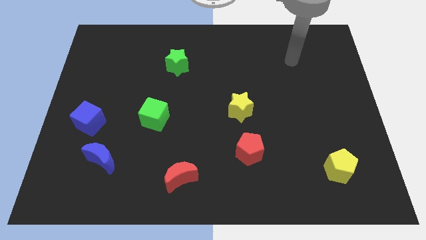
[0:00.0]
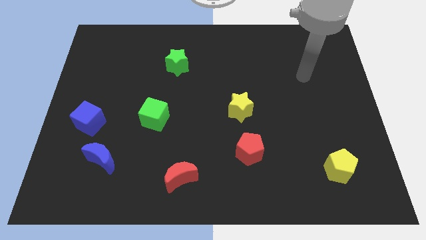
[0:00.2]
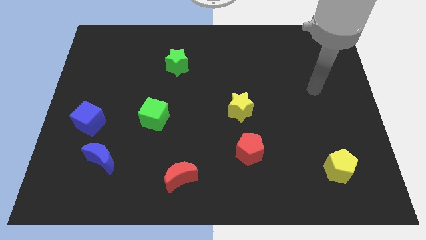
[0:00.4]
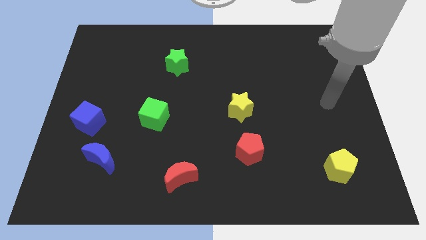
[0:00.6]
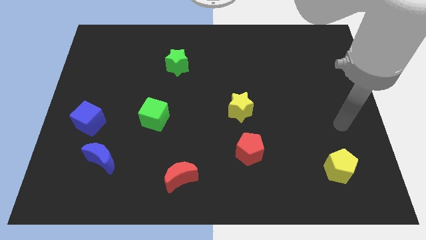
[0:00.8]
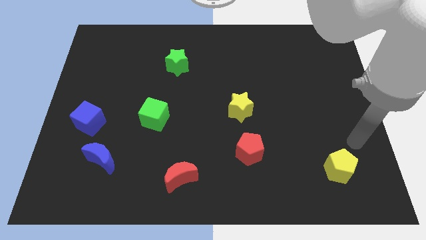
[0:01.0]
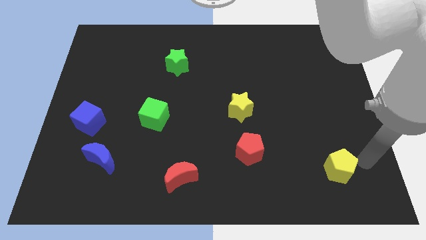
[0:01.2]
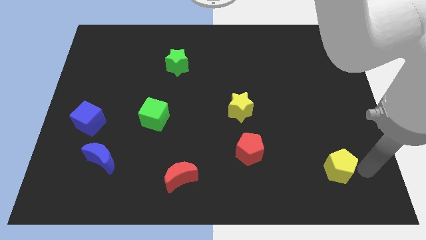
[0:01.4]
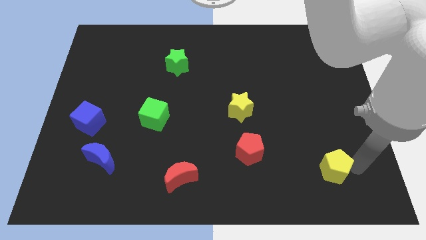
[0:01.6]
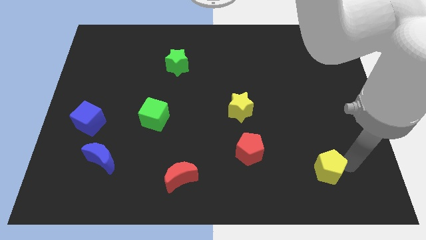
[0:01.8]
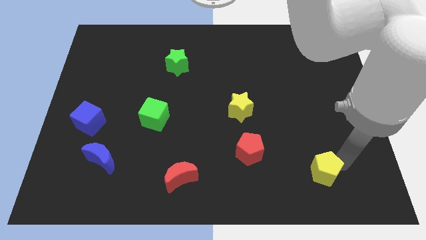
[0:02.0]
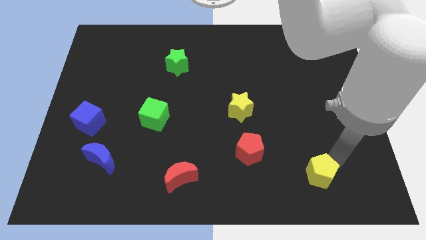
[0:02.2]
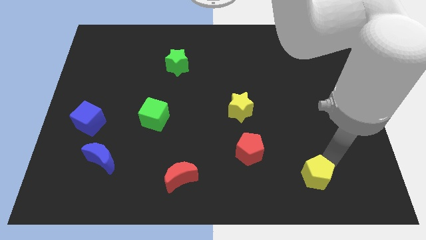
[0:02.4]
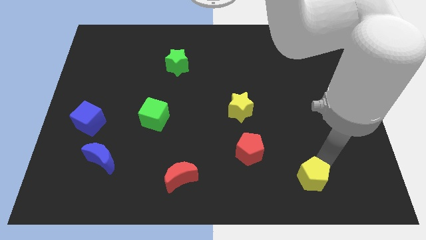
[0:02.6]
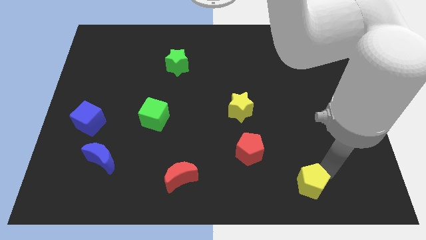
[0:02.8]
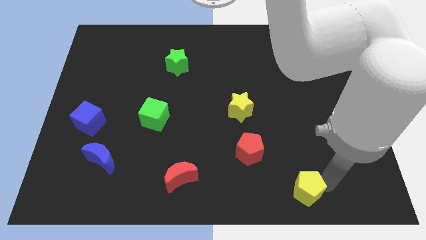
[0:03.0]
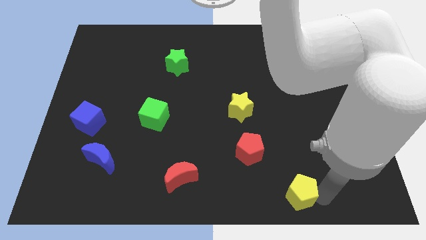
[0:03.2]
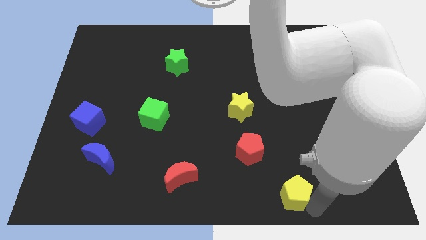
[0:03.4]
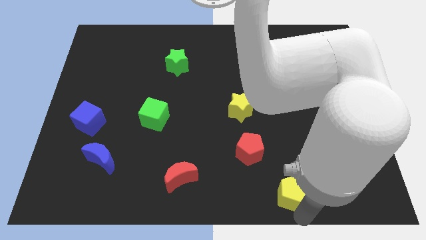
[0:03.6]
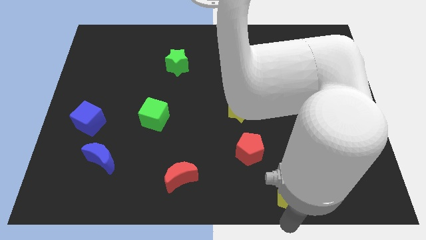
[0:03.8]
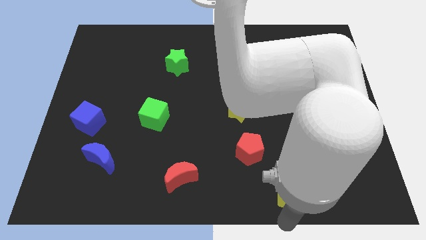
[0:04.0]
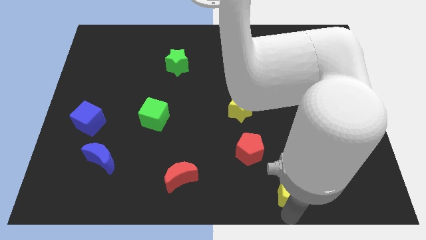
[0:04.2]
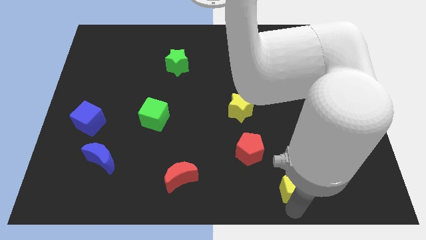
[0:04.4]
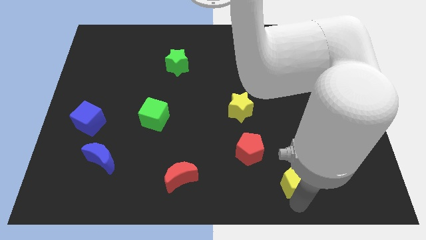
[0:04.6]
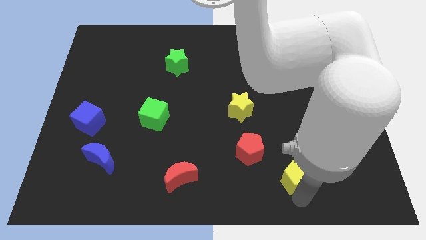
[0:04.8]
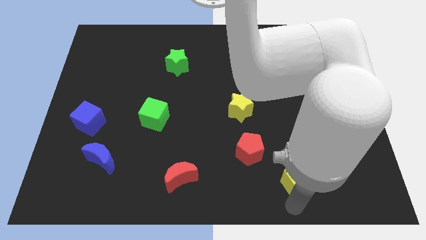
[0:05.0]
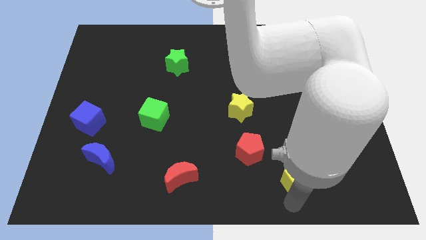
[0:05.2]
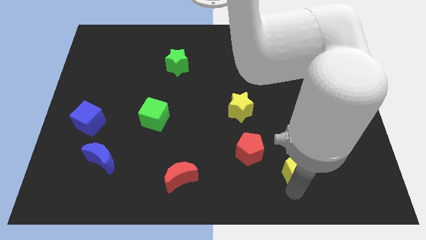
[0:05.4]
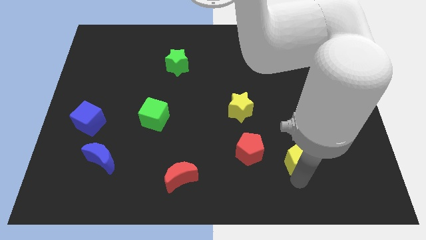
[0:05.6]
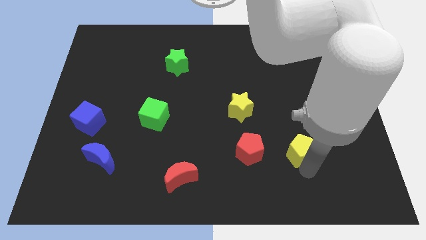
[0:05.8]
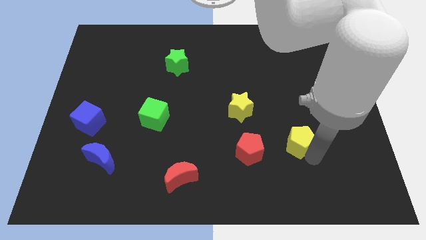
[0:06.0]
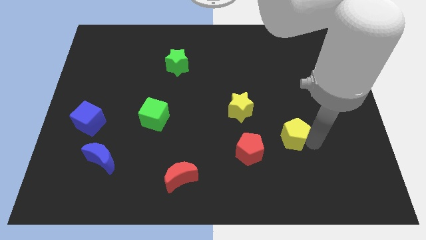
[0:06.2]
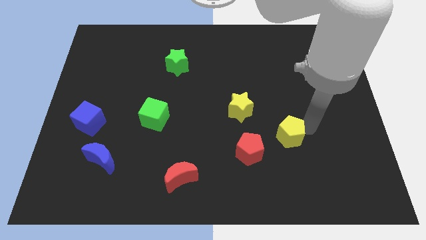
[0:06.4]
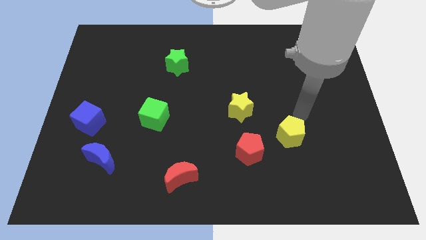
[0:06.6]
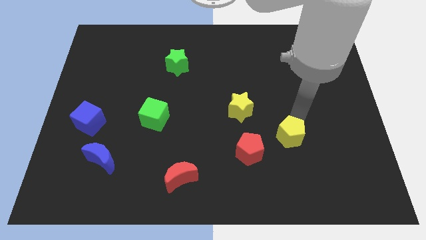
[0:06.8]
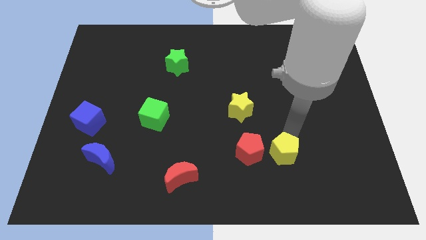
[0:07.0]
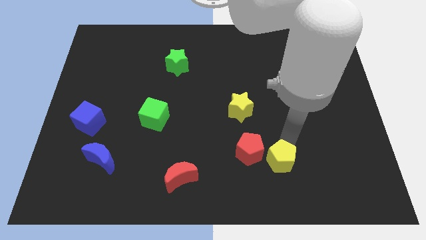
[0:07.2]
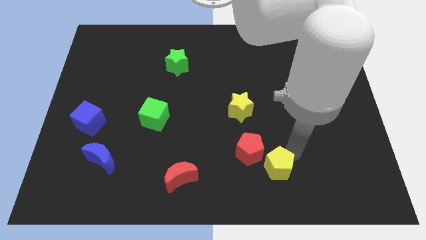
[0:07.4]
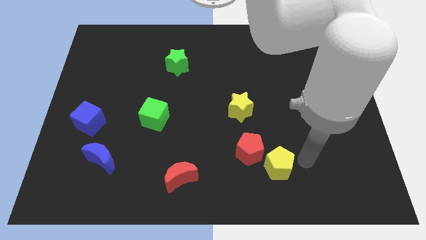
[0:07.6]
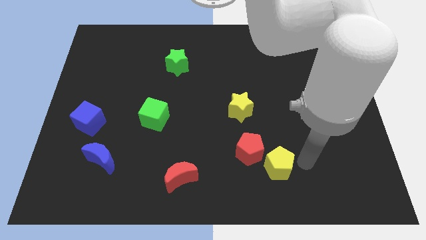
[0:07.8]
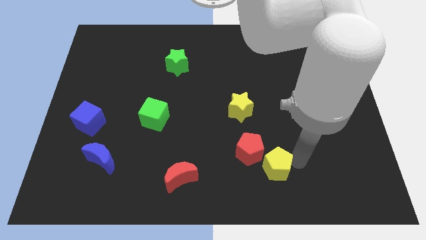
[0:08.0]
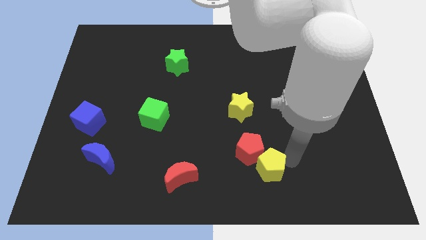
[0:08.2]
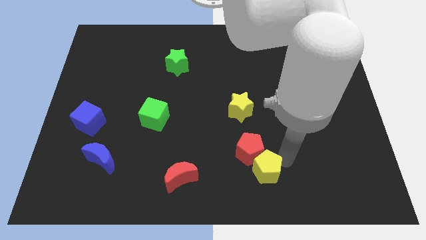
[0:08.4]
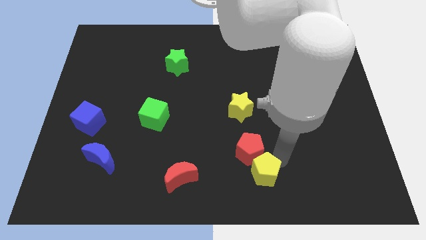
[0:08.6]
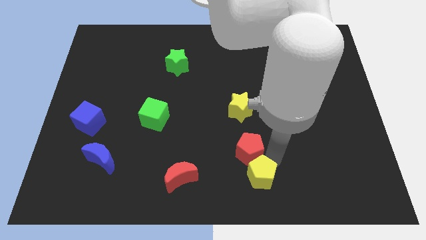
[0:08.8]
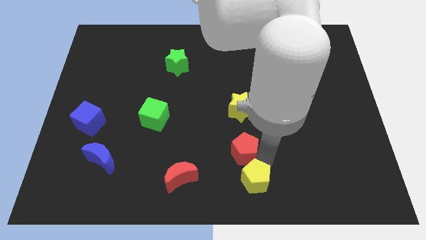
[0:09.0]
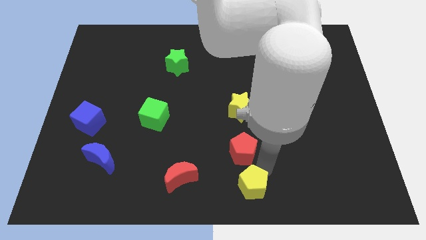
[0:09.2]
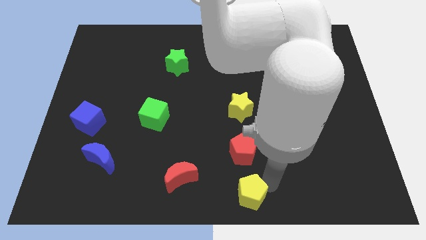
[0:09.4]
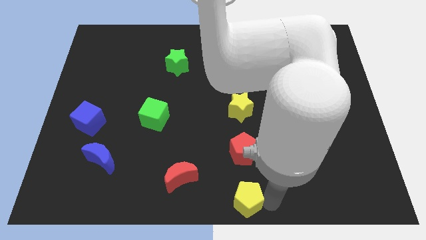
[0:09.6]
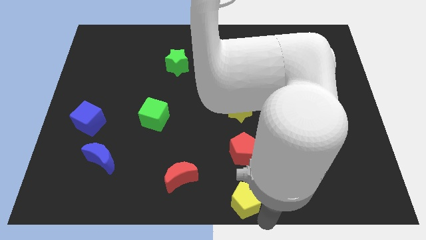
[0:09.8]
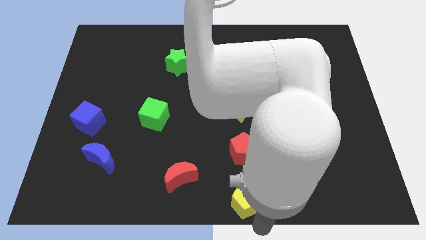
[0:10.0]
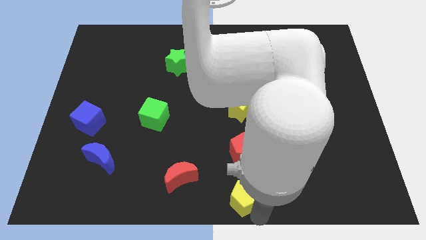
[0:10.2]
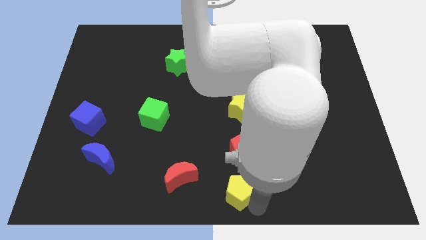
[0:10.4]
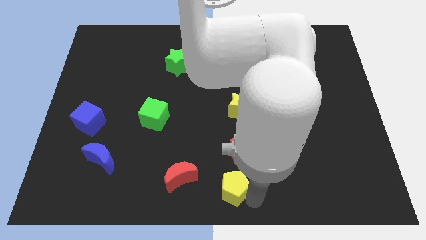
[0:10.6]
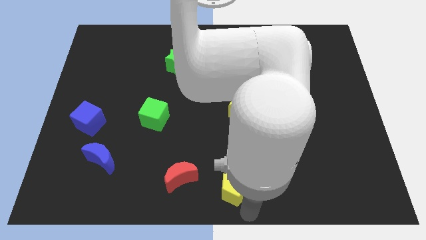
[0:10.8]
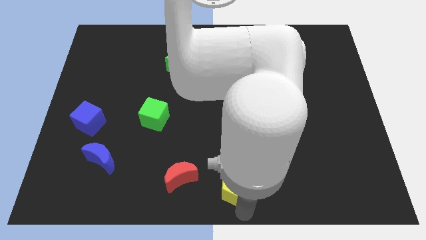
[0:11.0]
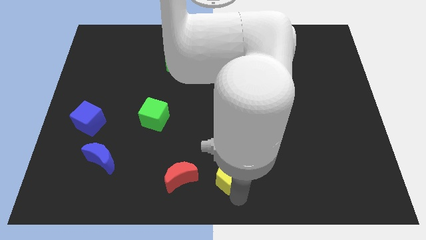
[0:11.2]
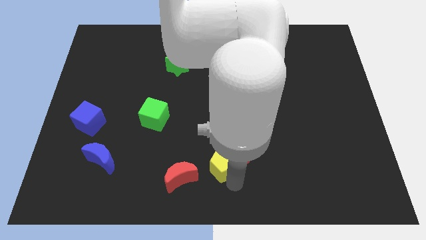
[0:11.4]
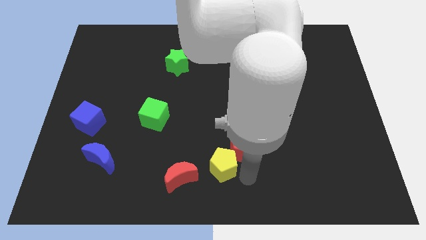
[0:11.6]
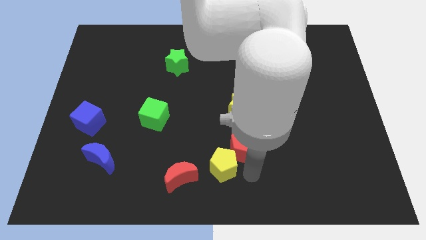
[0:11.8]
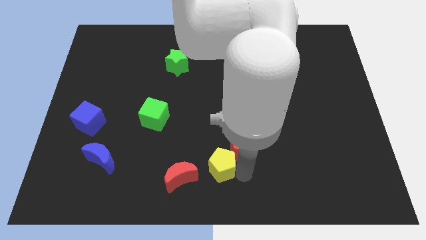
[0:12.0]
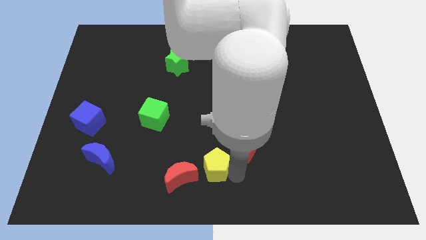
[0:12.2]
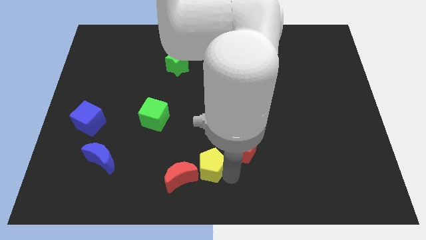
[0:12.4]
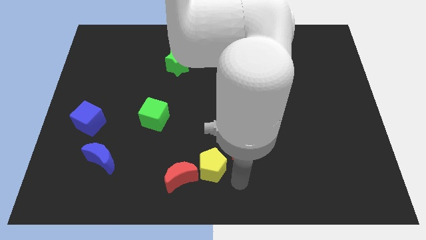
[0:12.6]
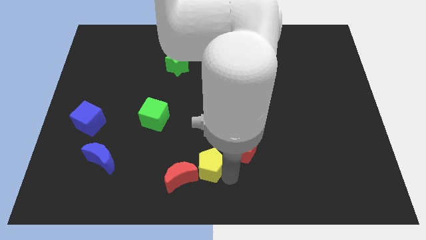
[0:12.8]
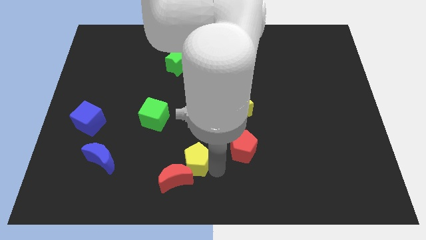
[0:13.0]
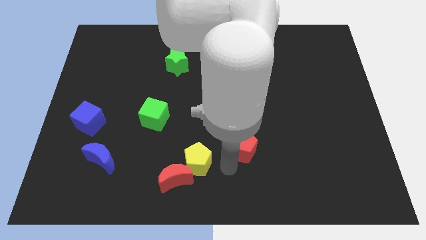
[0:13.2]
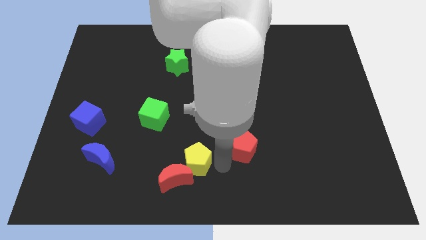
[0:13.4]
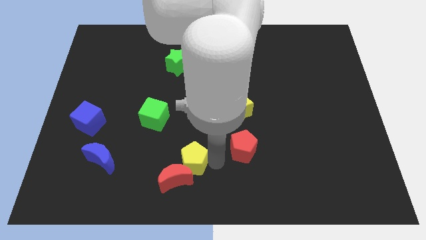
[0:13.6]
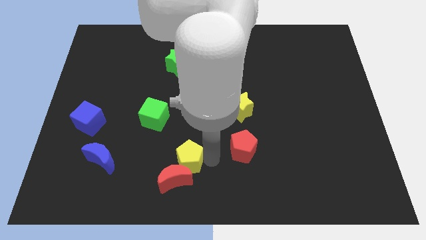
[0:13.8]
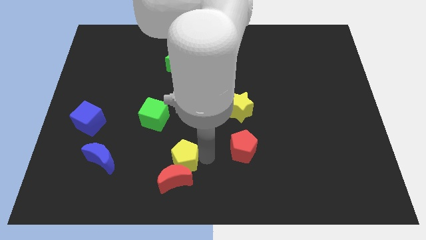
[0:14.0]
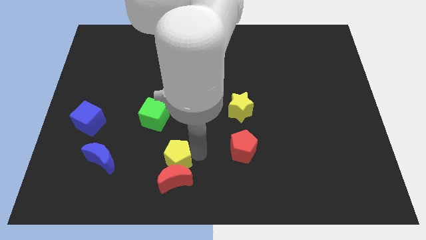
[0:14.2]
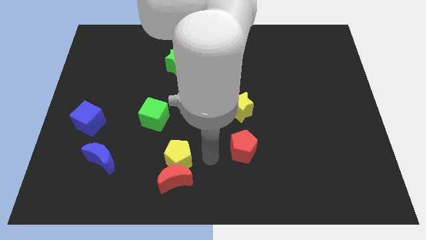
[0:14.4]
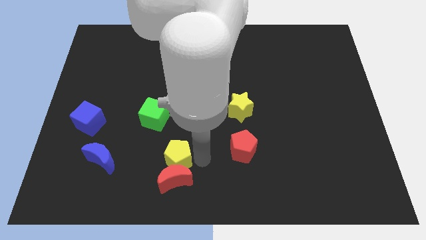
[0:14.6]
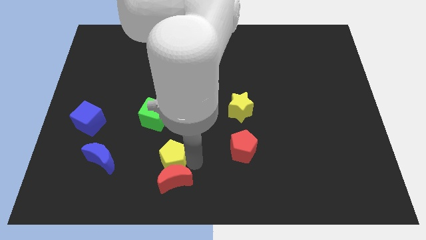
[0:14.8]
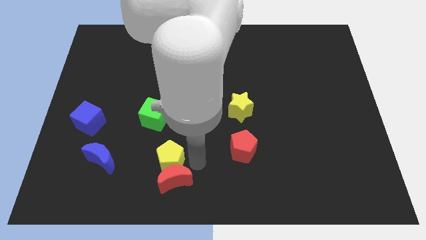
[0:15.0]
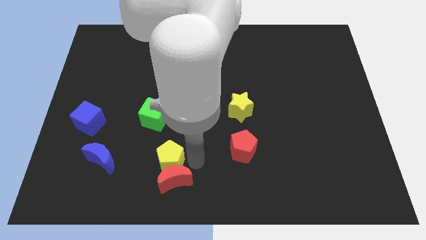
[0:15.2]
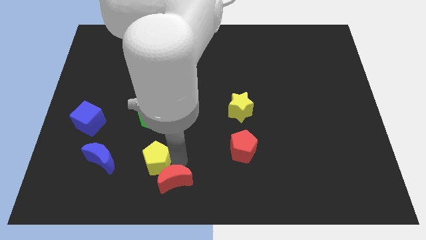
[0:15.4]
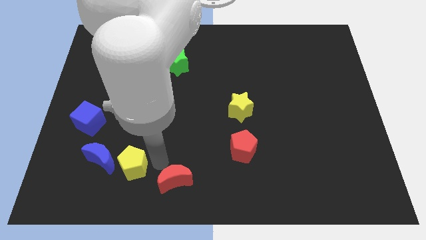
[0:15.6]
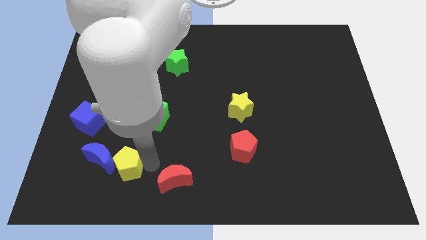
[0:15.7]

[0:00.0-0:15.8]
push the yellow pentagon next to the blue moon
